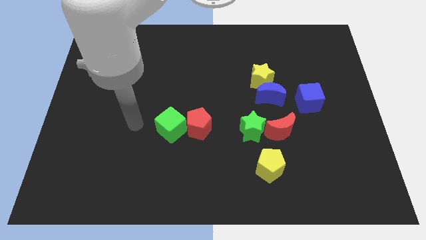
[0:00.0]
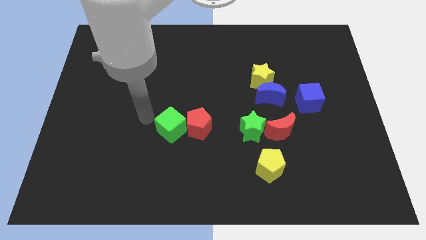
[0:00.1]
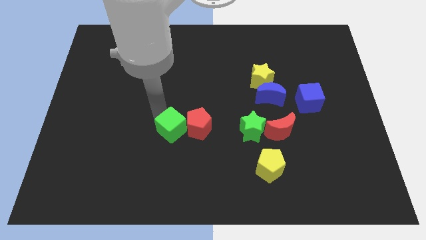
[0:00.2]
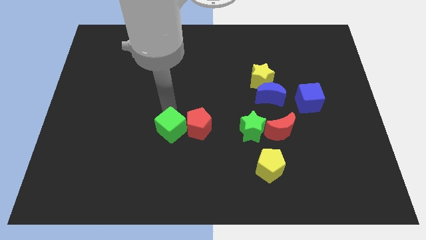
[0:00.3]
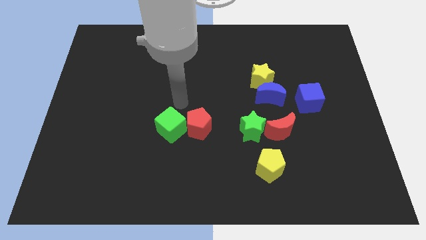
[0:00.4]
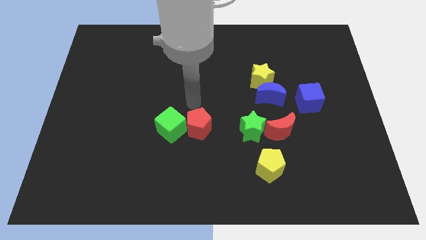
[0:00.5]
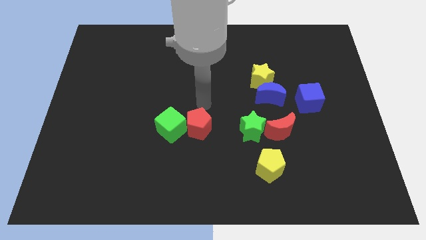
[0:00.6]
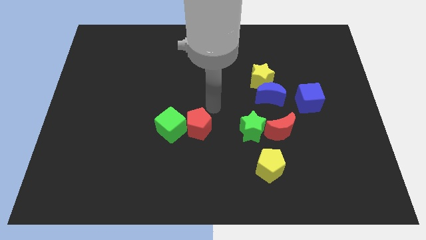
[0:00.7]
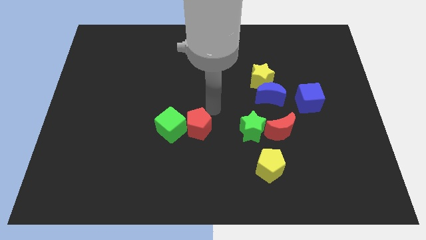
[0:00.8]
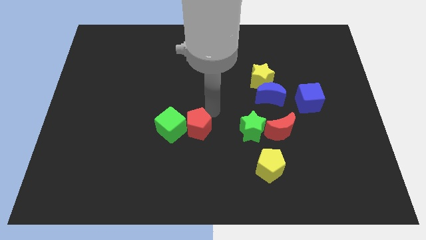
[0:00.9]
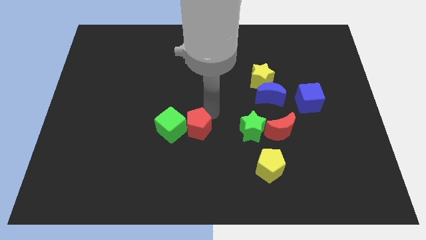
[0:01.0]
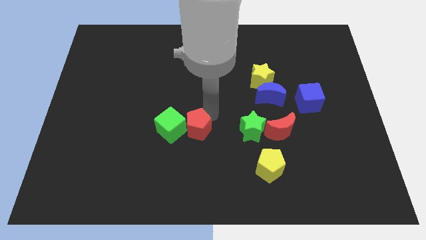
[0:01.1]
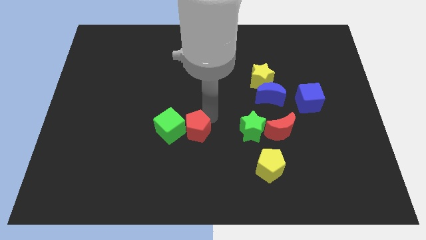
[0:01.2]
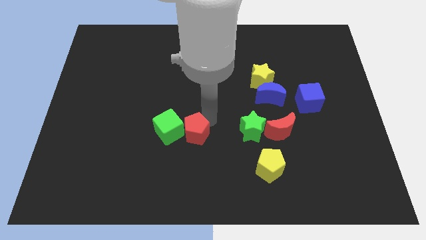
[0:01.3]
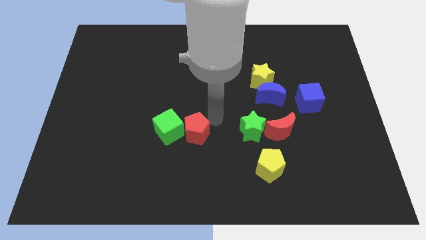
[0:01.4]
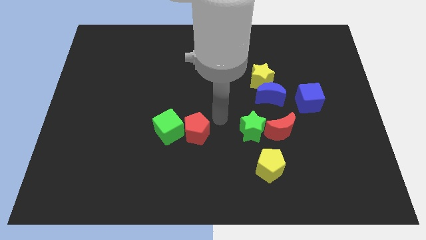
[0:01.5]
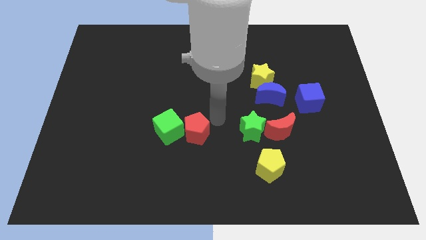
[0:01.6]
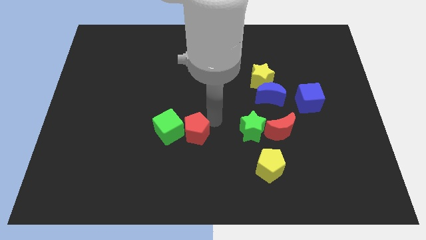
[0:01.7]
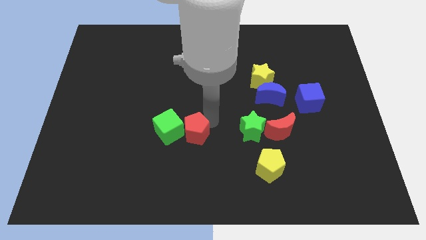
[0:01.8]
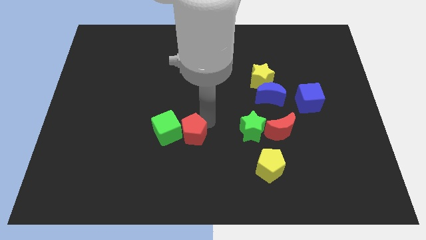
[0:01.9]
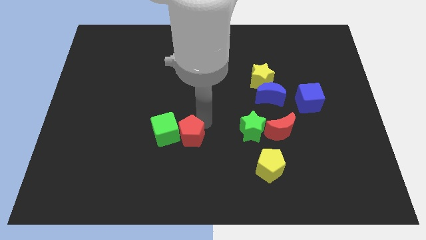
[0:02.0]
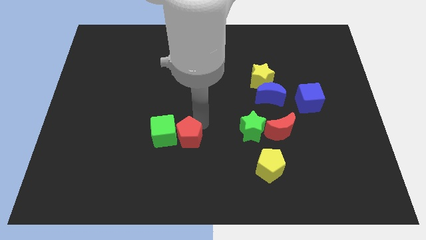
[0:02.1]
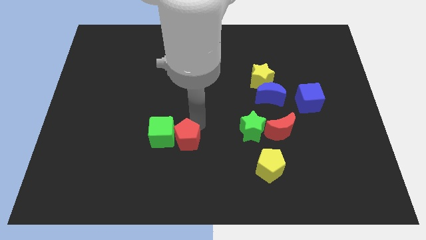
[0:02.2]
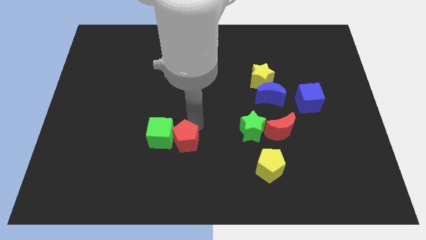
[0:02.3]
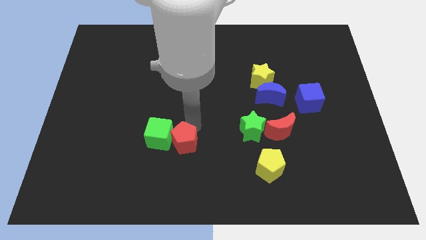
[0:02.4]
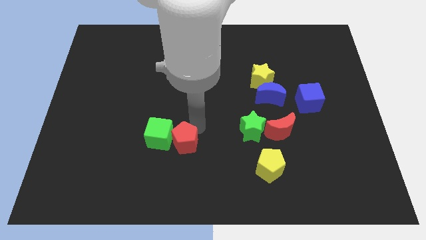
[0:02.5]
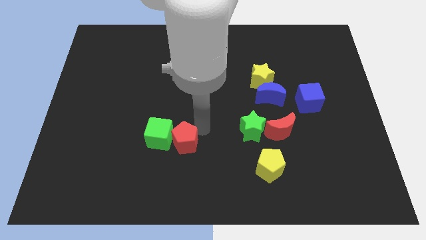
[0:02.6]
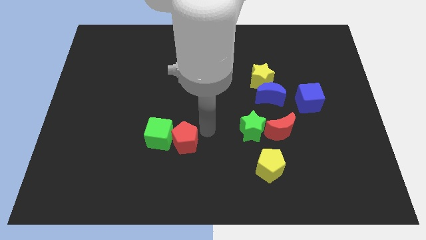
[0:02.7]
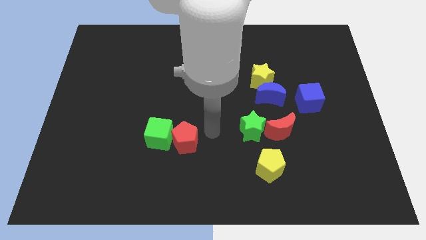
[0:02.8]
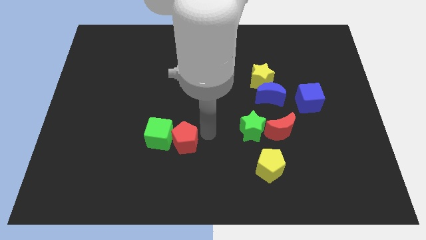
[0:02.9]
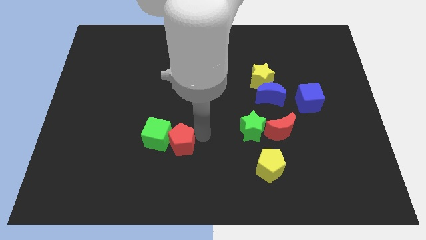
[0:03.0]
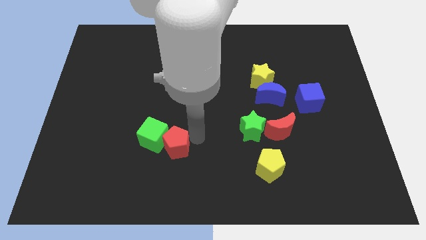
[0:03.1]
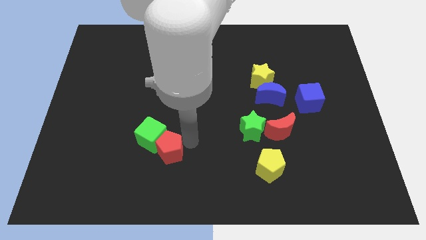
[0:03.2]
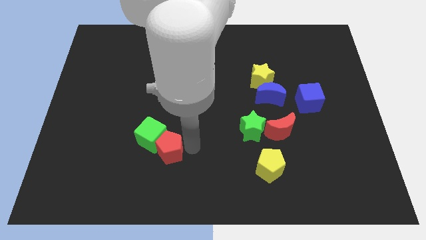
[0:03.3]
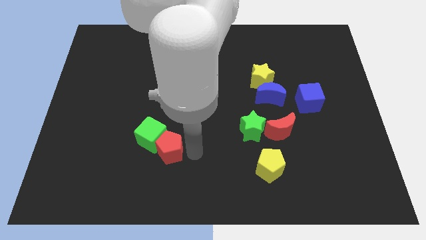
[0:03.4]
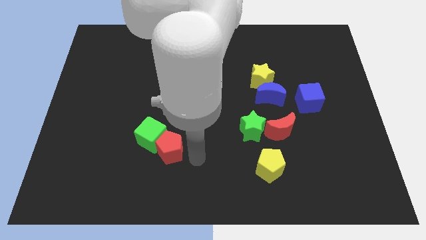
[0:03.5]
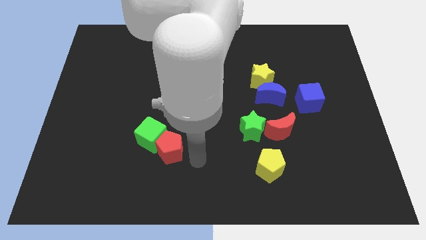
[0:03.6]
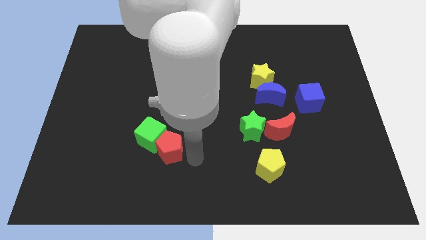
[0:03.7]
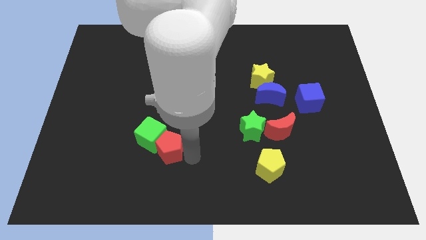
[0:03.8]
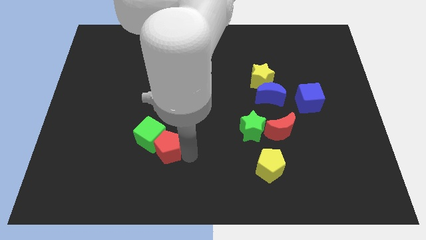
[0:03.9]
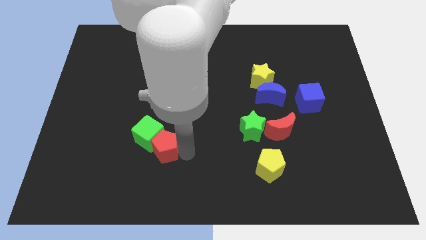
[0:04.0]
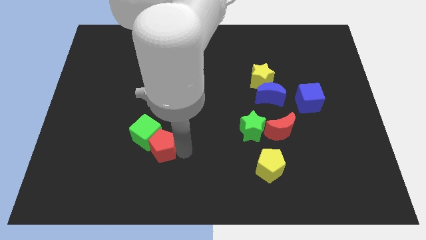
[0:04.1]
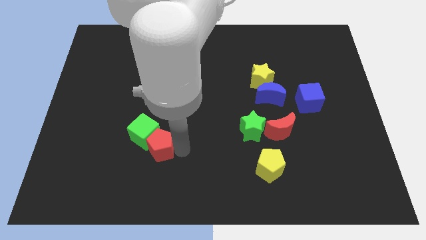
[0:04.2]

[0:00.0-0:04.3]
slightly move the red pentagon to the left

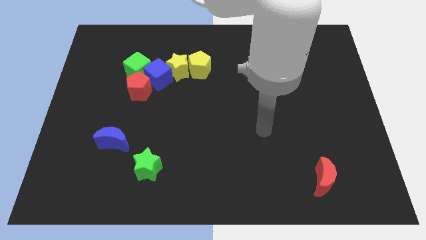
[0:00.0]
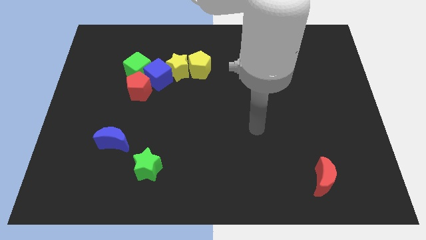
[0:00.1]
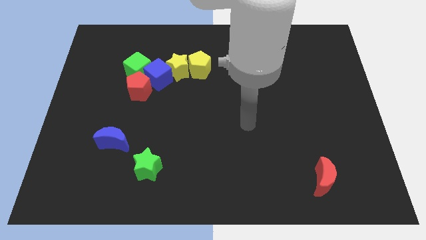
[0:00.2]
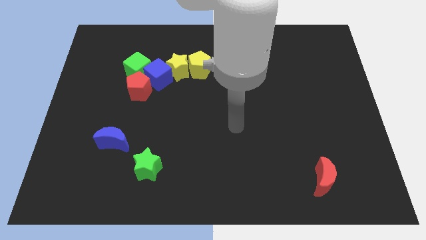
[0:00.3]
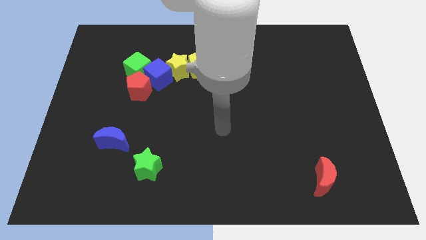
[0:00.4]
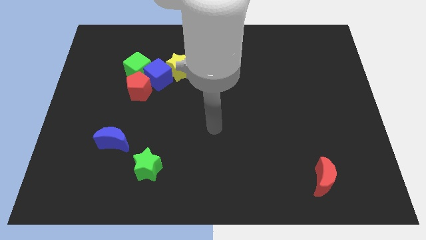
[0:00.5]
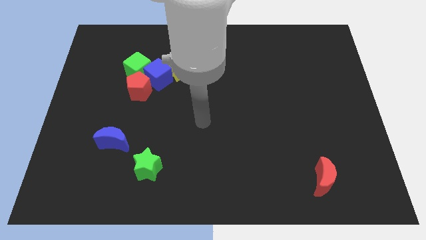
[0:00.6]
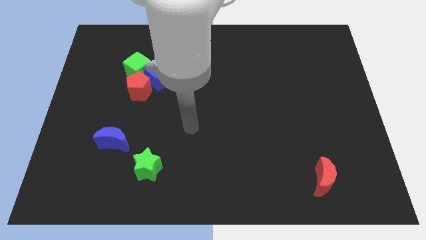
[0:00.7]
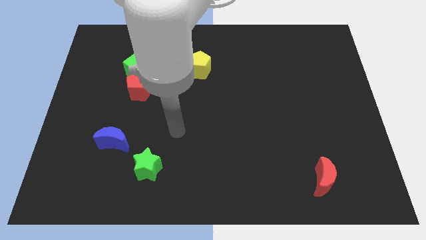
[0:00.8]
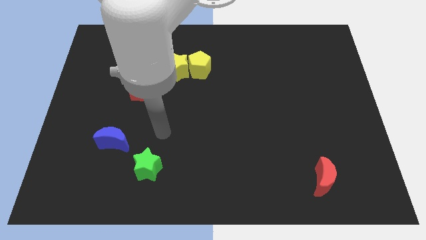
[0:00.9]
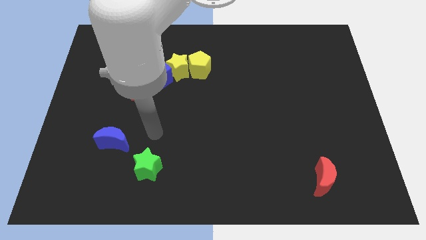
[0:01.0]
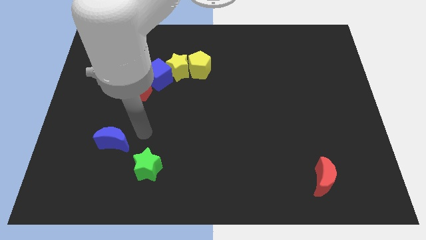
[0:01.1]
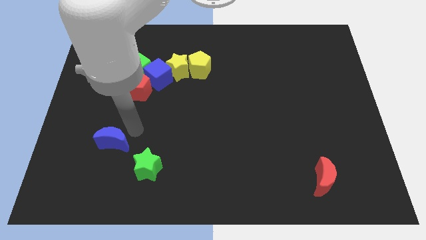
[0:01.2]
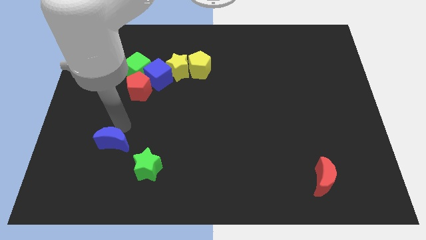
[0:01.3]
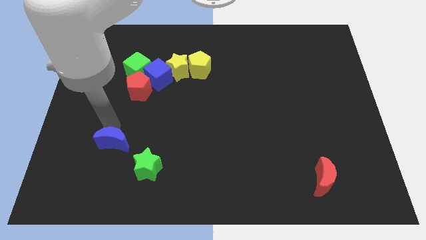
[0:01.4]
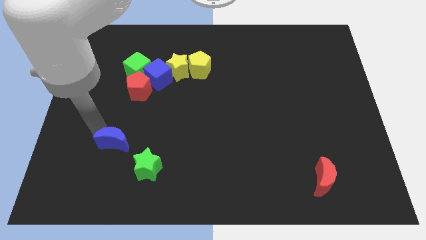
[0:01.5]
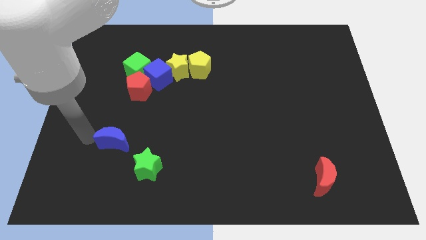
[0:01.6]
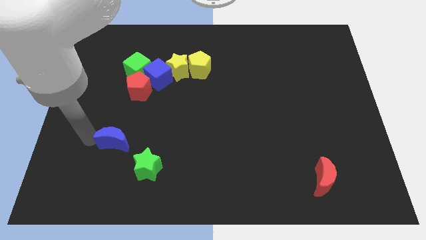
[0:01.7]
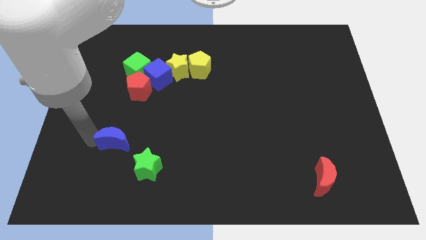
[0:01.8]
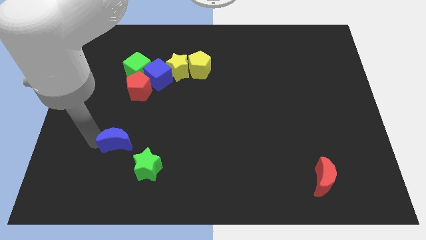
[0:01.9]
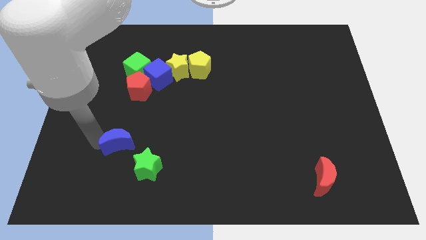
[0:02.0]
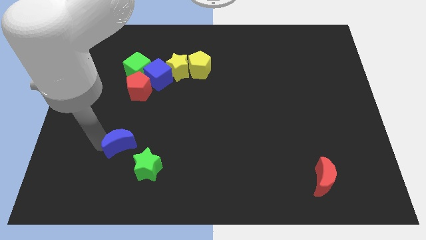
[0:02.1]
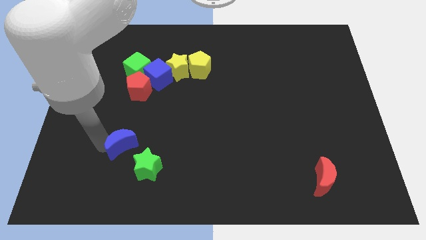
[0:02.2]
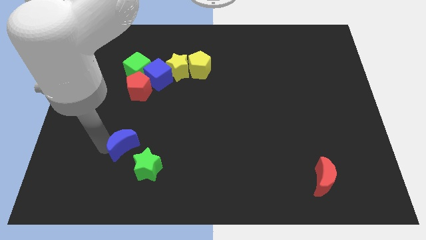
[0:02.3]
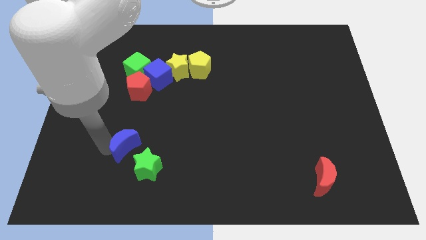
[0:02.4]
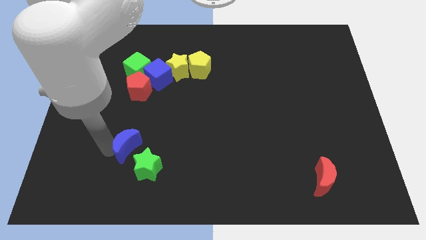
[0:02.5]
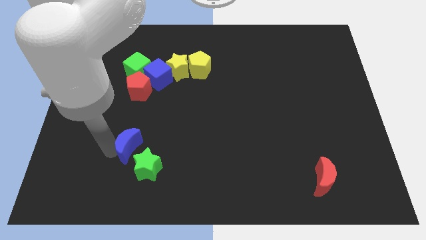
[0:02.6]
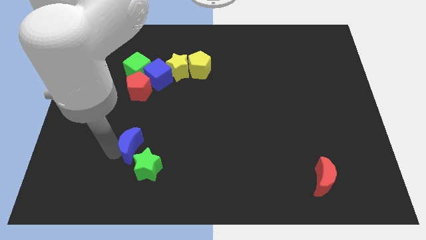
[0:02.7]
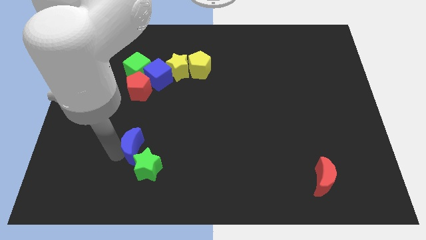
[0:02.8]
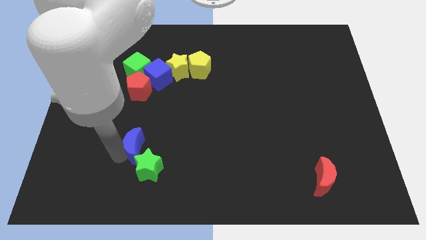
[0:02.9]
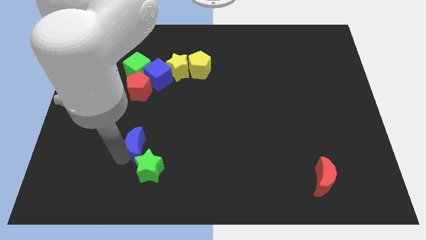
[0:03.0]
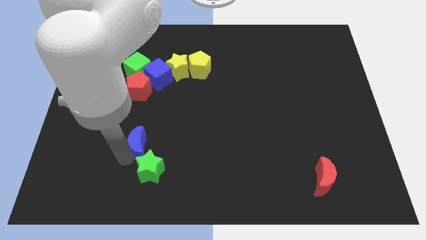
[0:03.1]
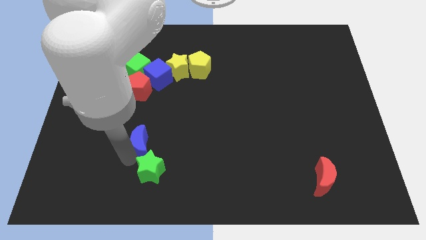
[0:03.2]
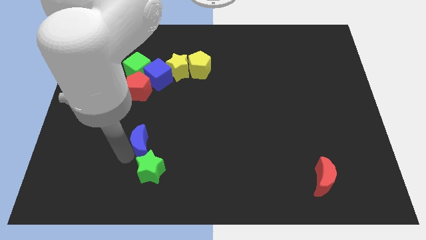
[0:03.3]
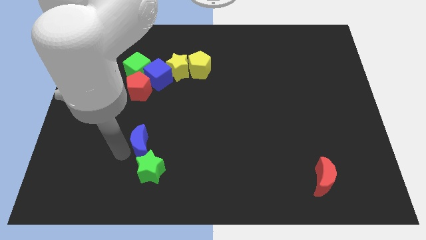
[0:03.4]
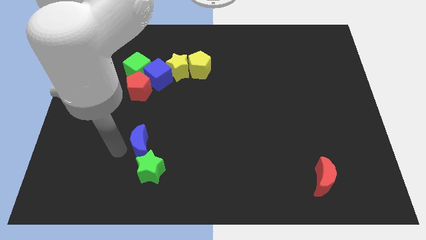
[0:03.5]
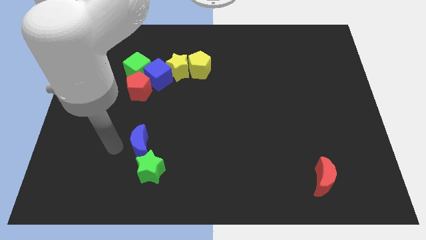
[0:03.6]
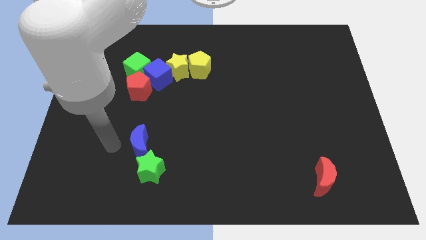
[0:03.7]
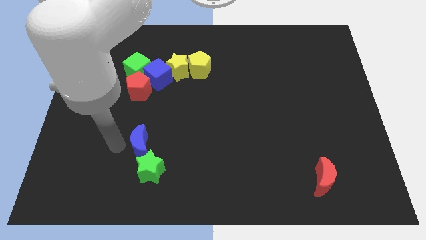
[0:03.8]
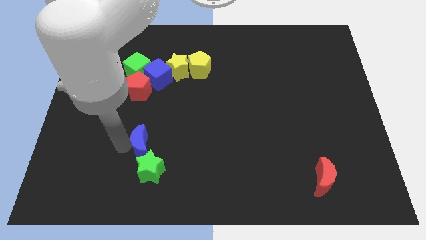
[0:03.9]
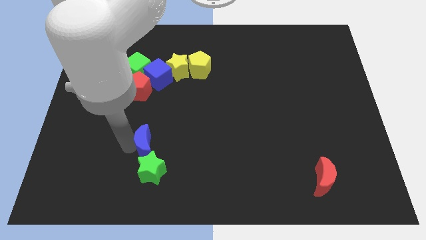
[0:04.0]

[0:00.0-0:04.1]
slide the blue moon right slightly
